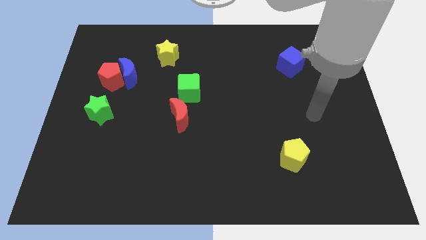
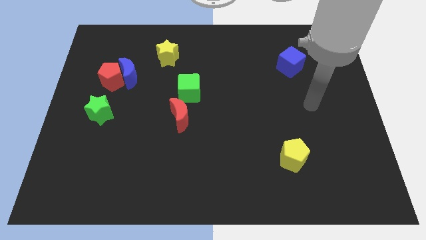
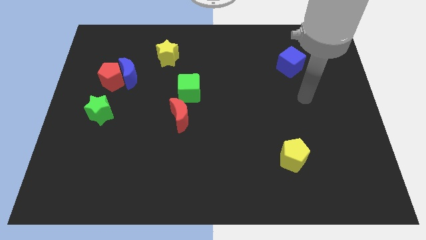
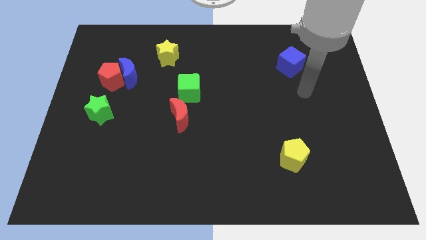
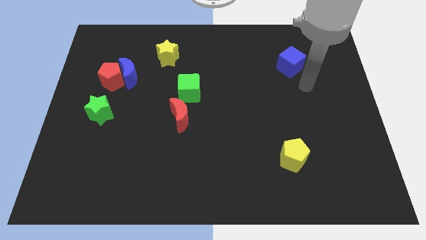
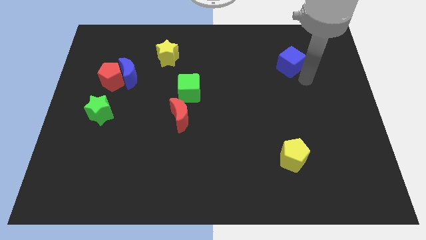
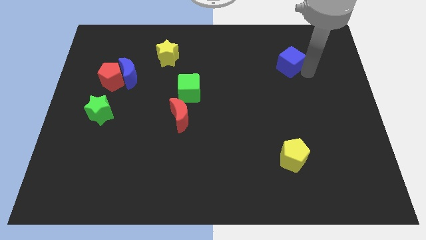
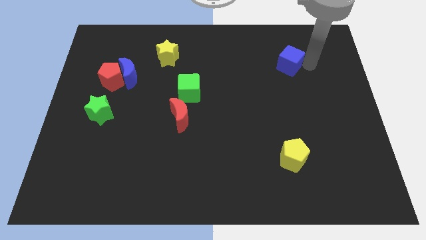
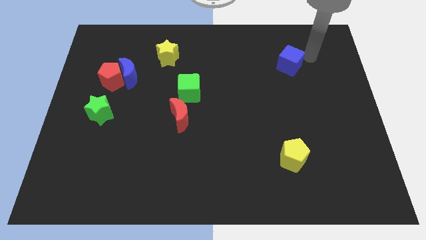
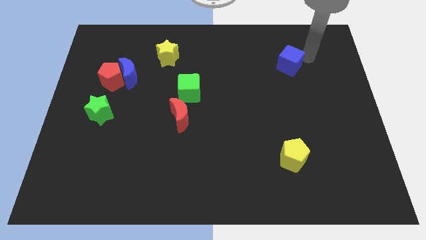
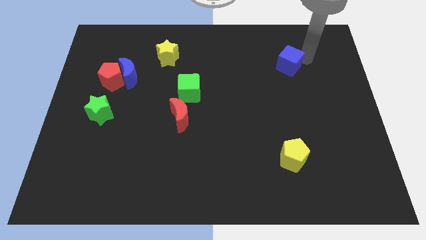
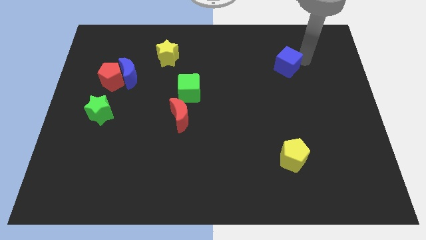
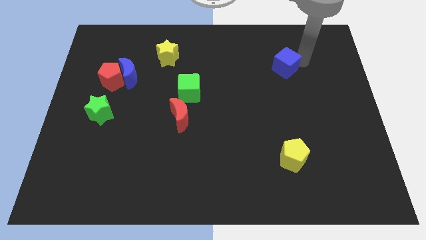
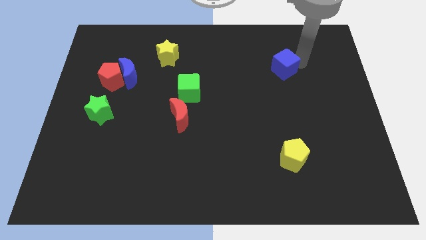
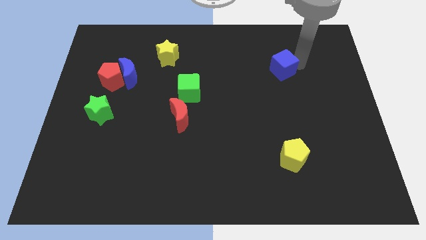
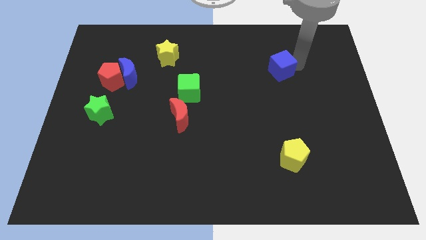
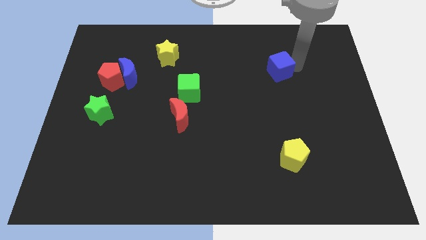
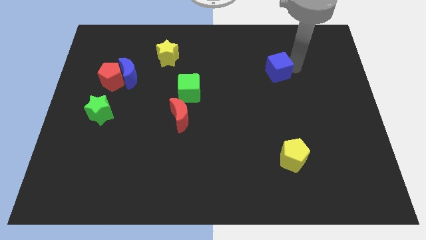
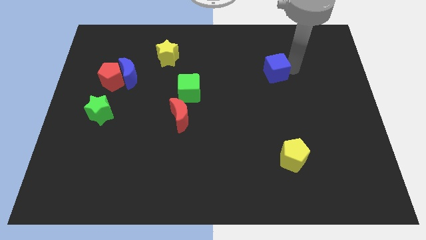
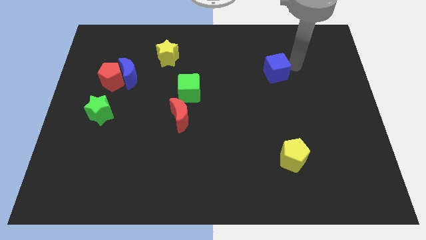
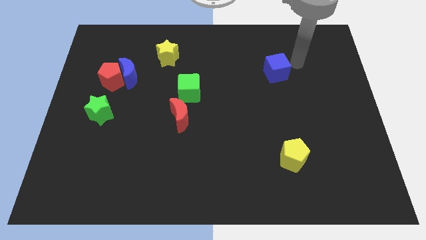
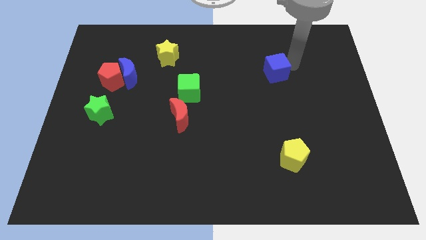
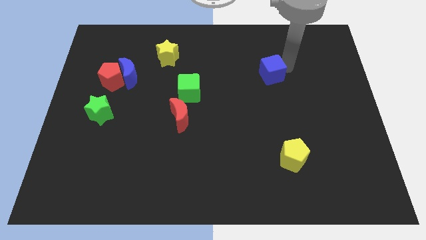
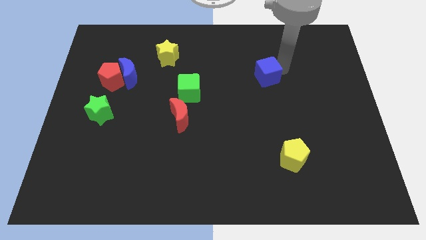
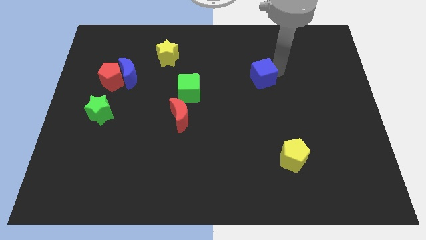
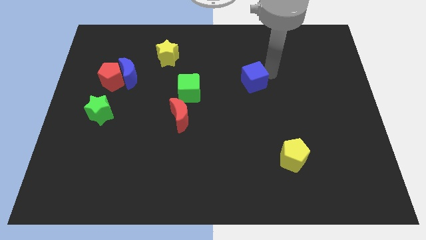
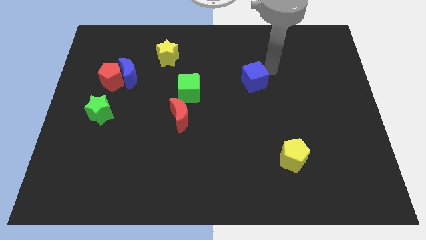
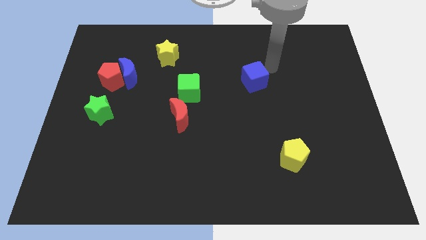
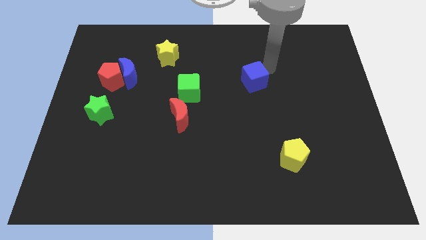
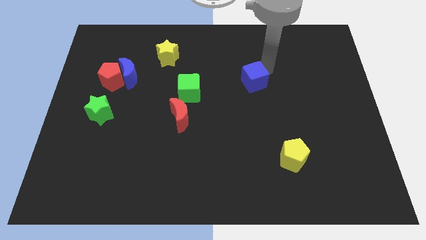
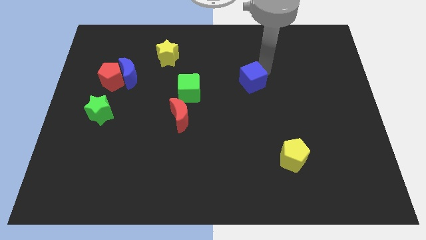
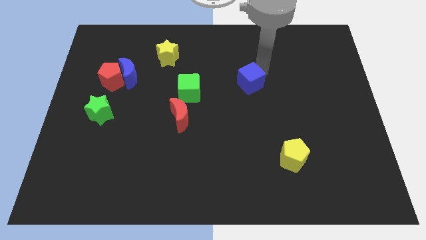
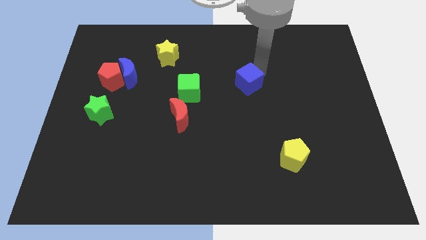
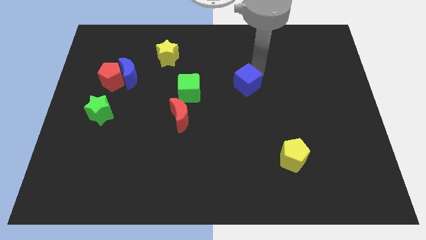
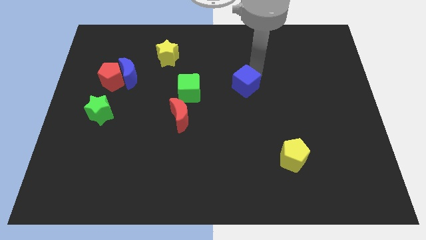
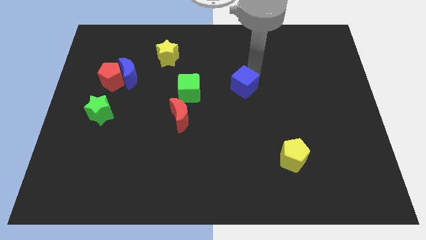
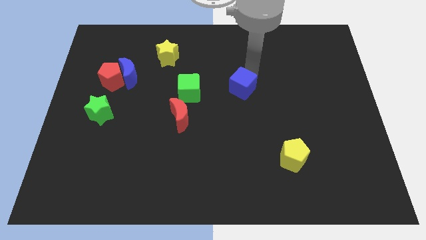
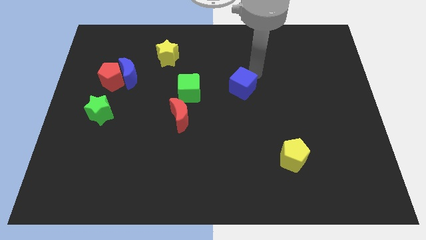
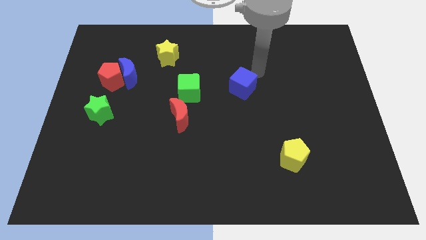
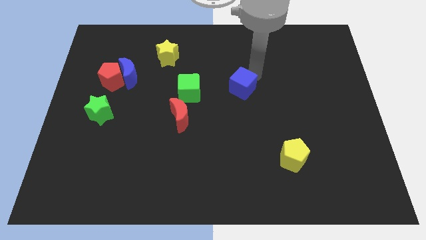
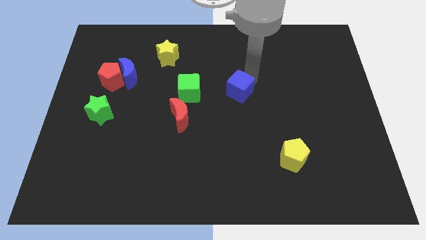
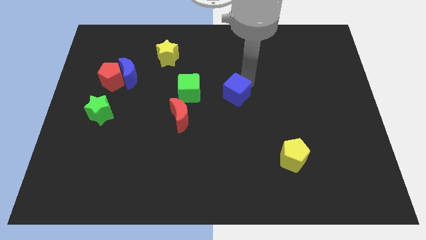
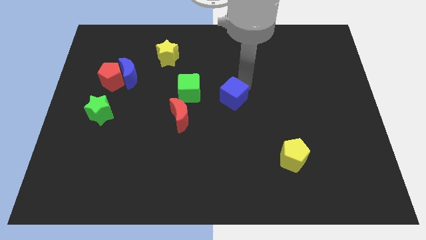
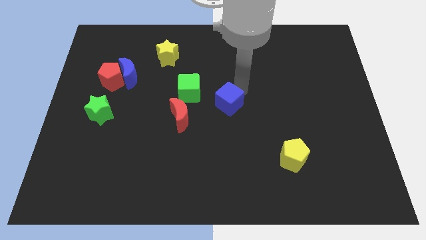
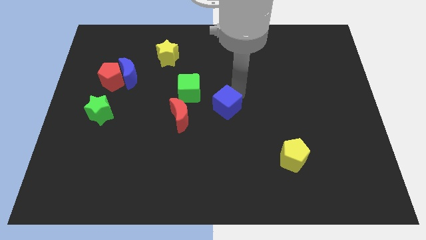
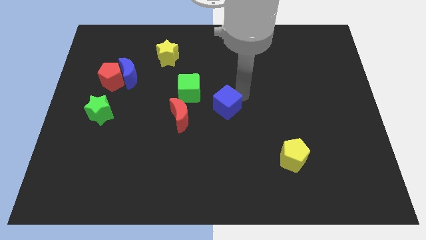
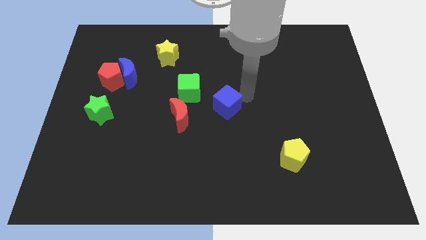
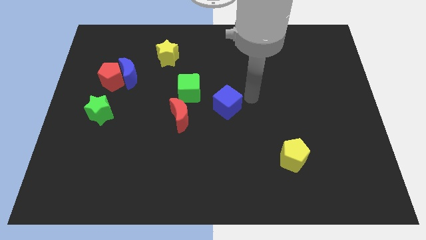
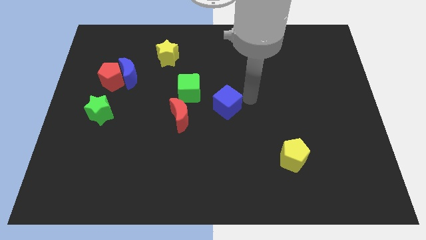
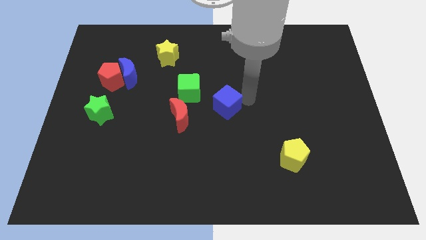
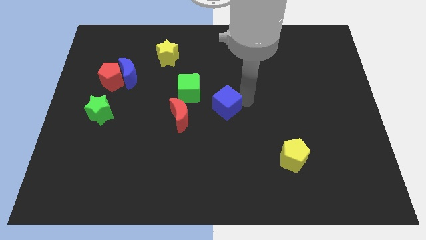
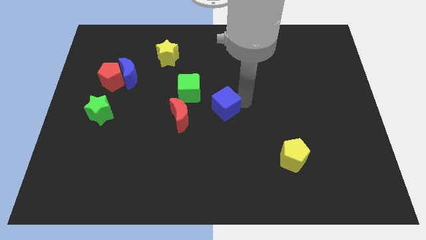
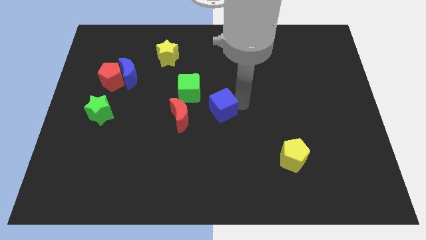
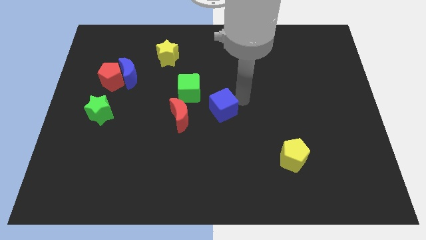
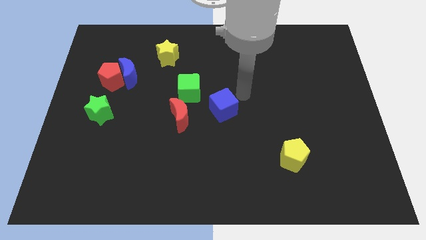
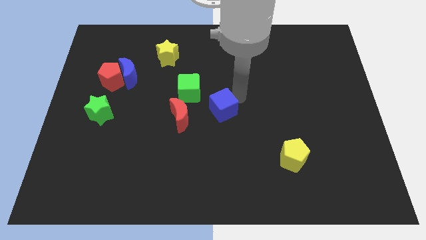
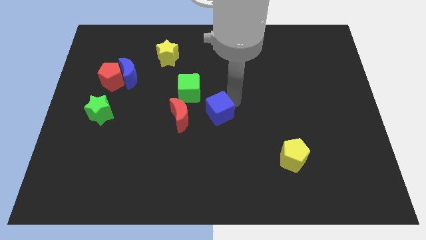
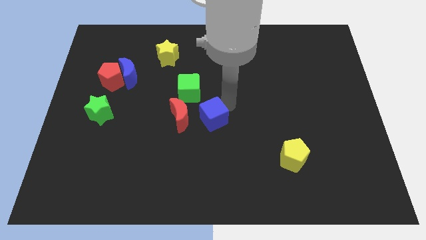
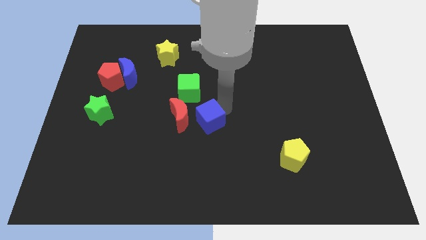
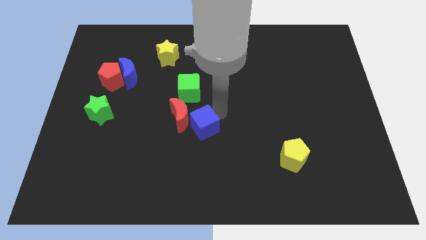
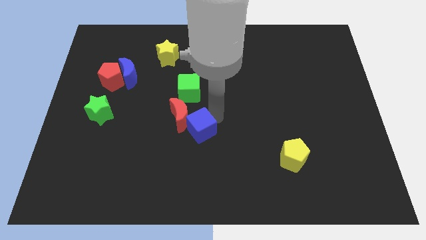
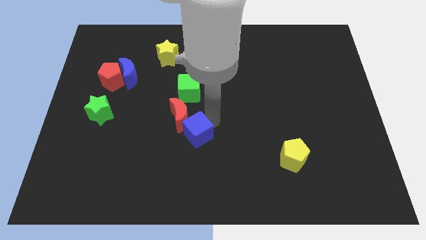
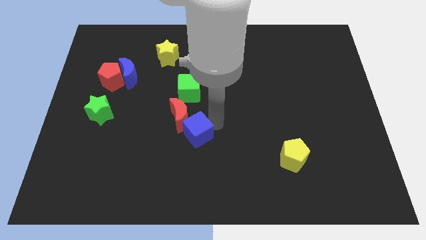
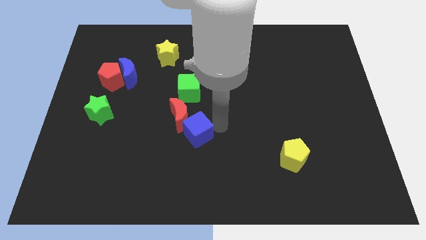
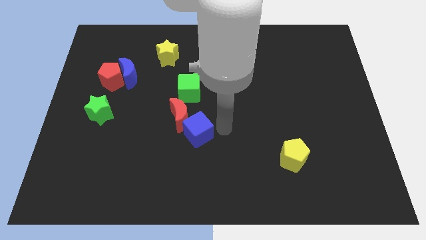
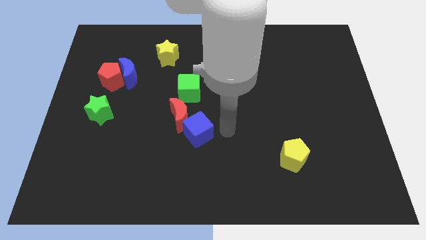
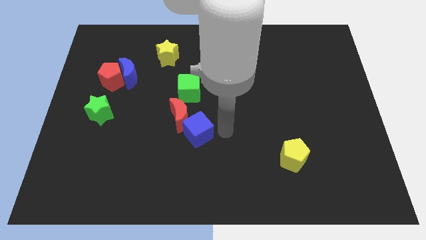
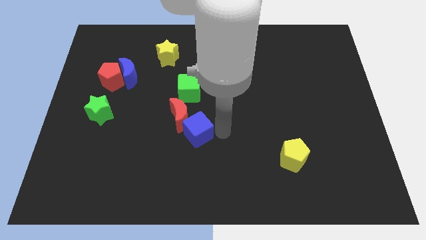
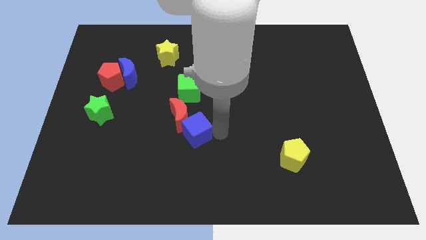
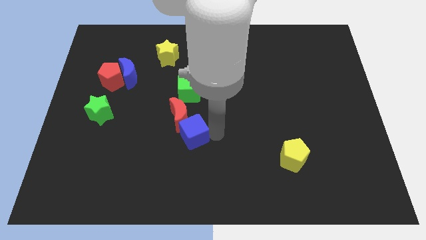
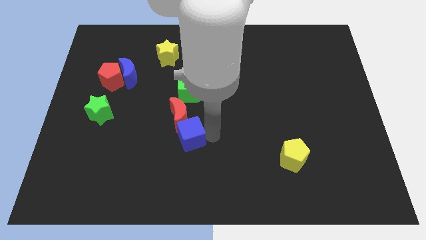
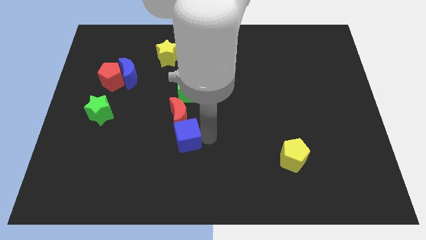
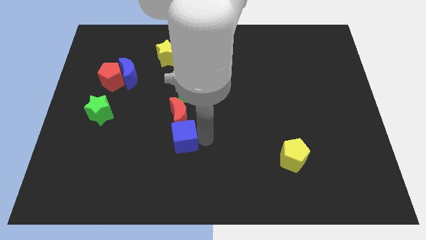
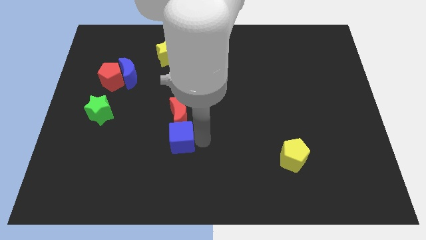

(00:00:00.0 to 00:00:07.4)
push the blue cube to the bottom left of the red moon
